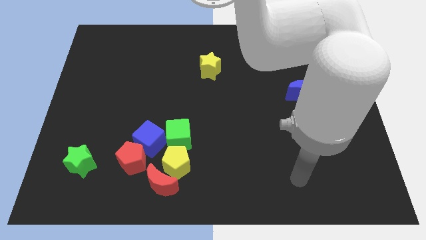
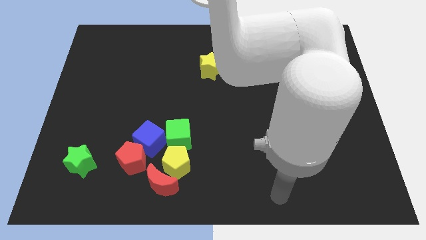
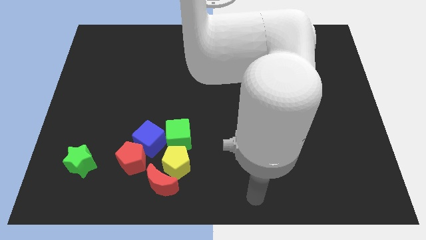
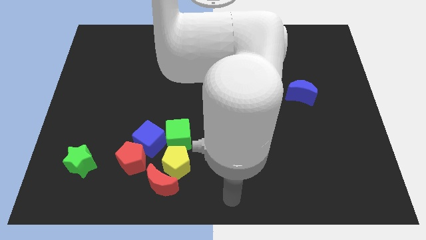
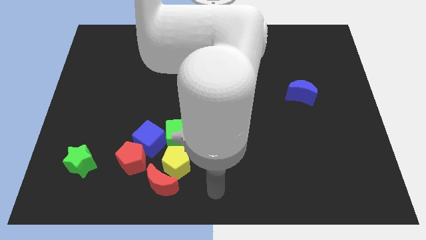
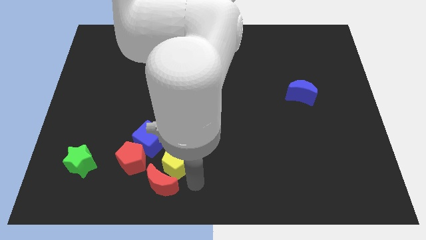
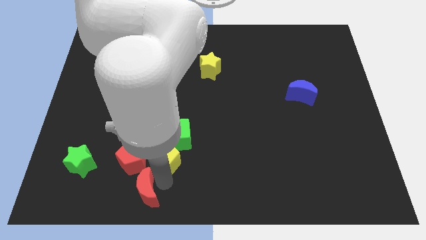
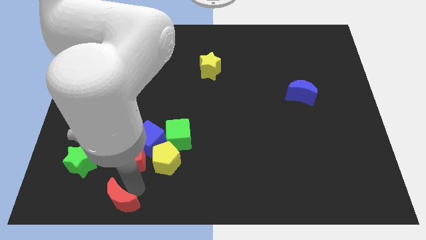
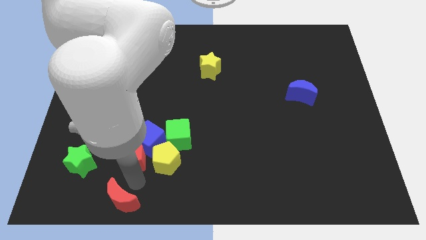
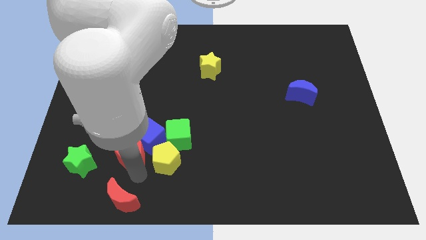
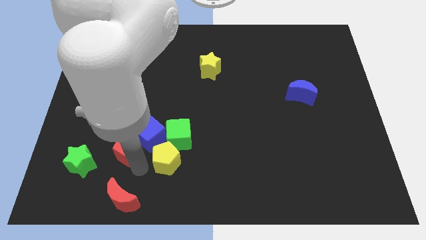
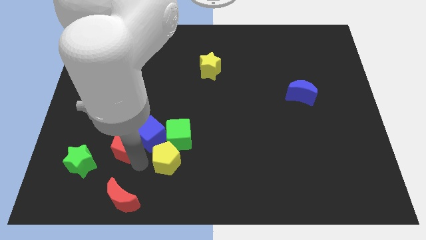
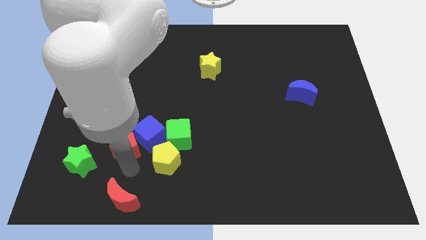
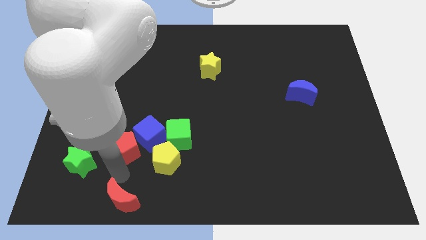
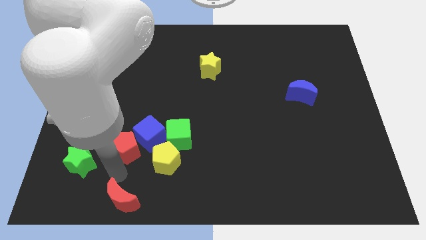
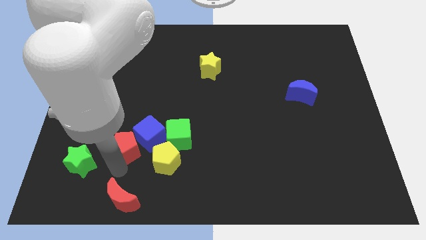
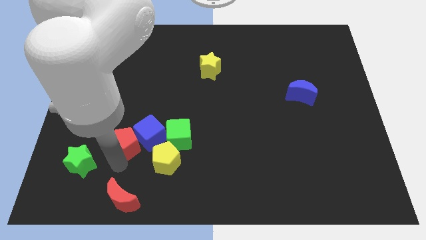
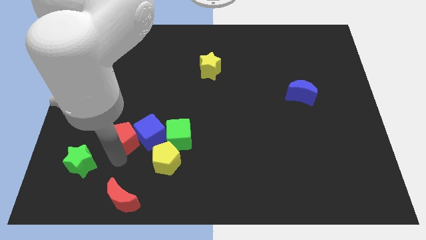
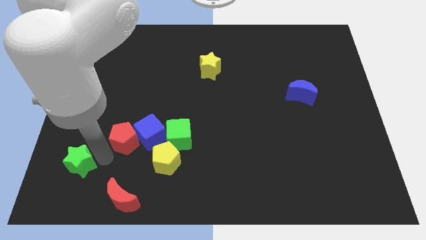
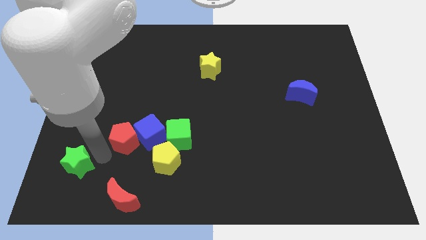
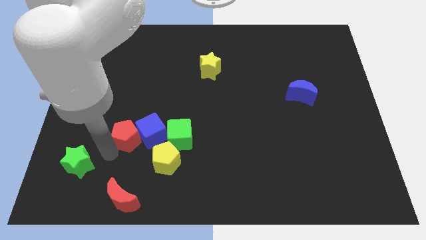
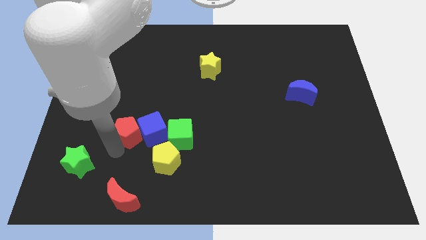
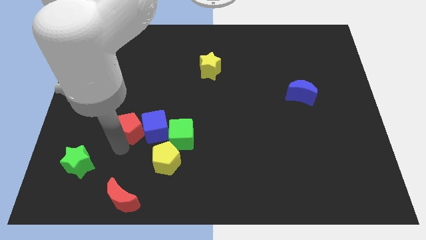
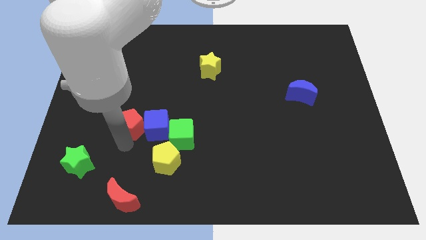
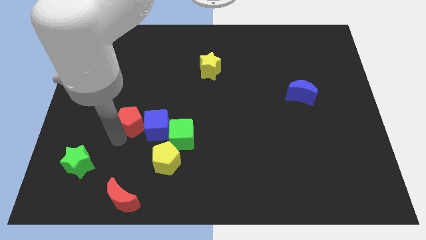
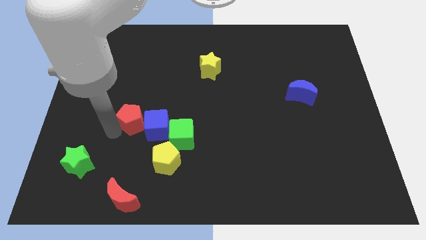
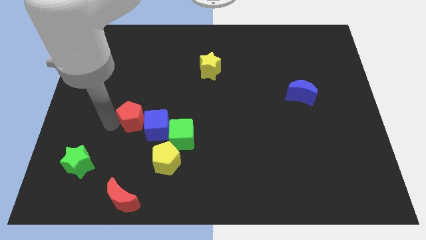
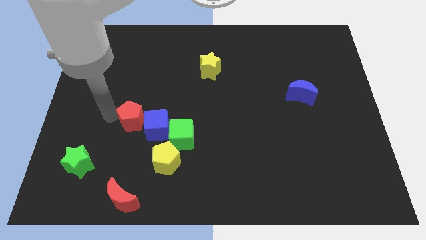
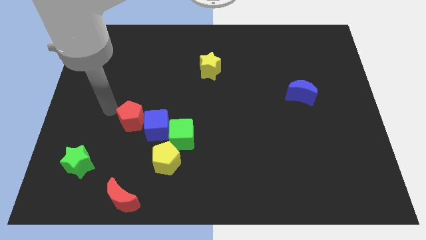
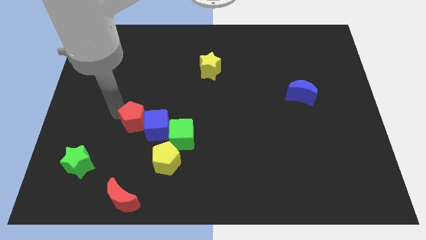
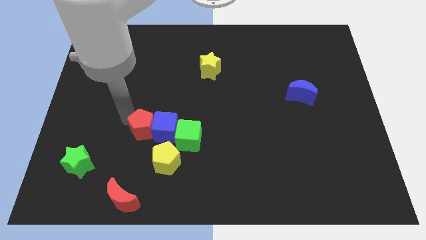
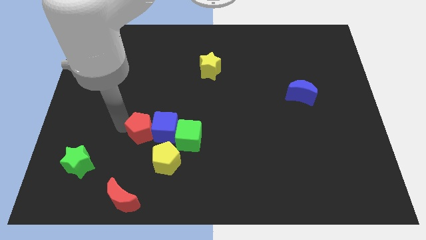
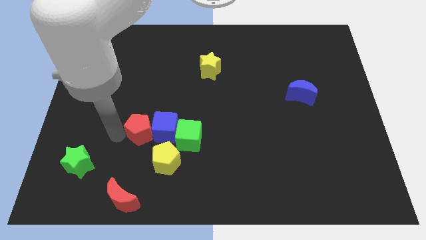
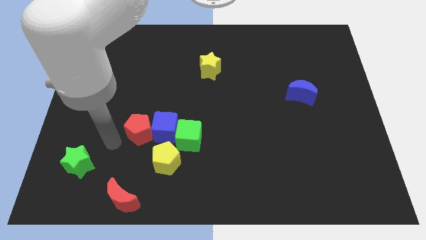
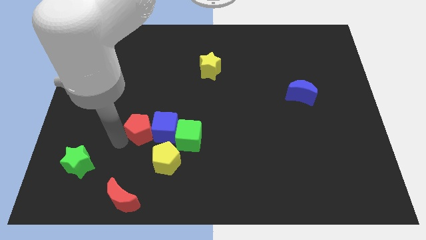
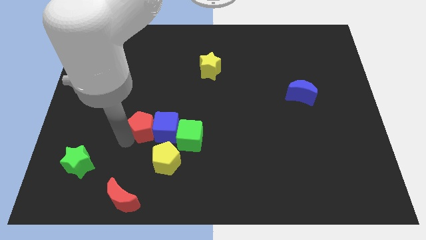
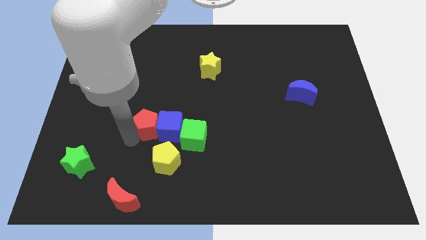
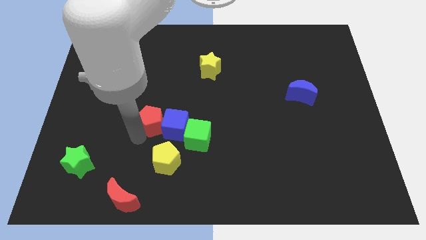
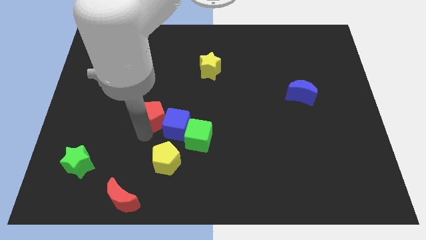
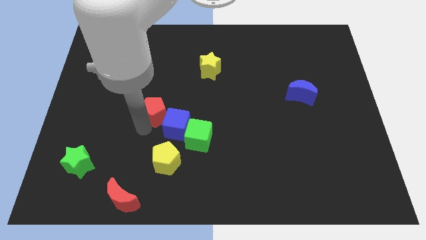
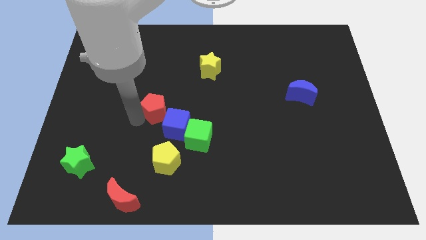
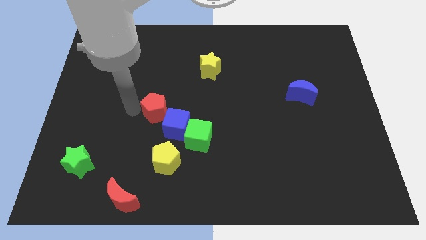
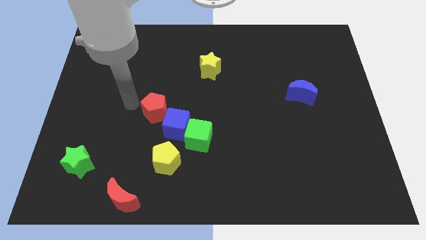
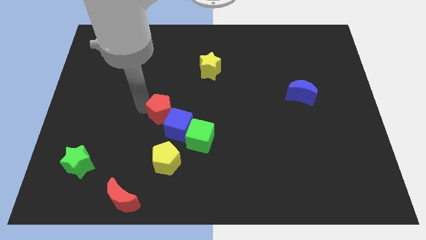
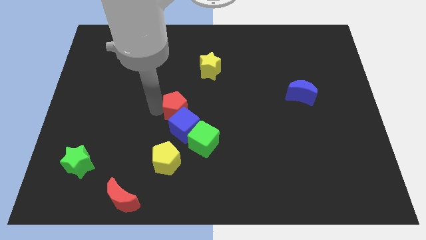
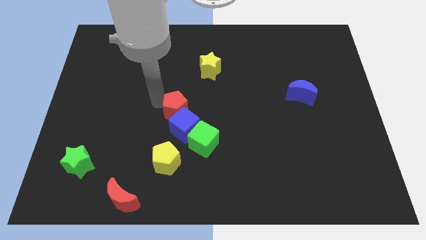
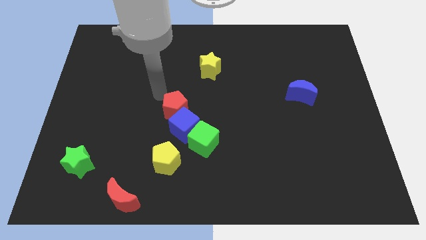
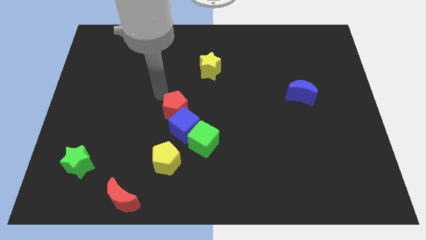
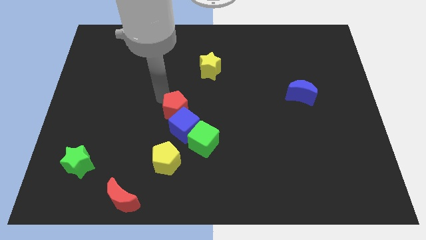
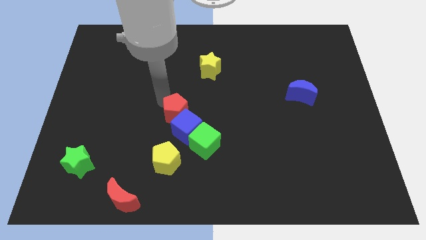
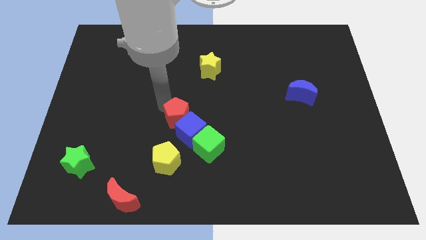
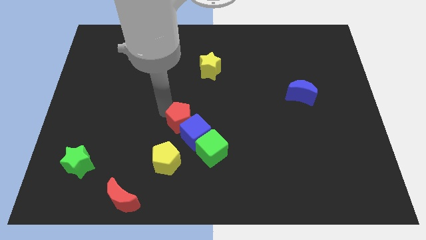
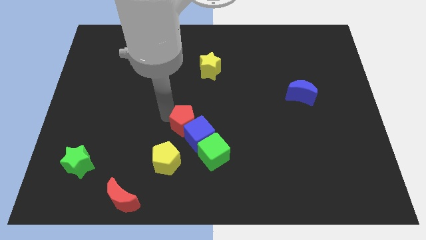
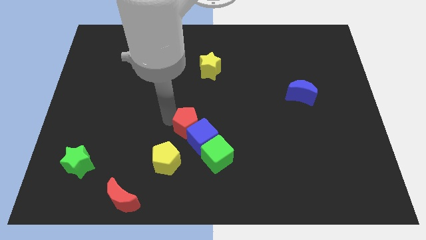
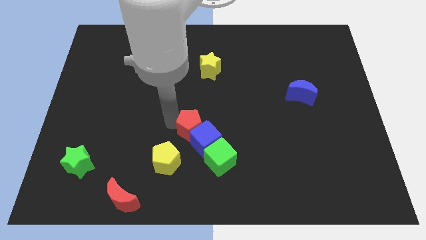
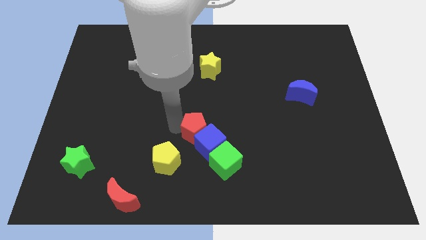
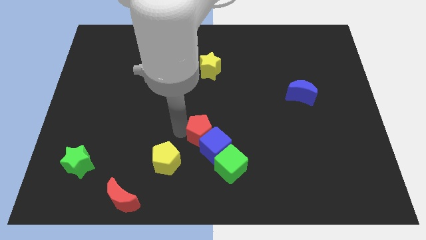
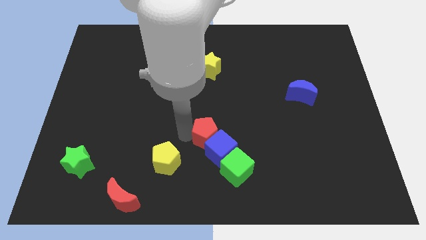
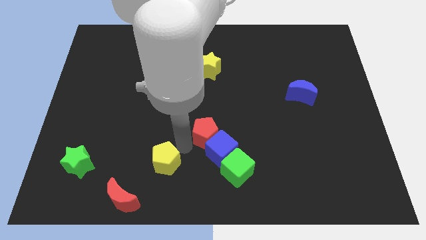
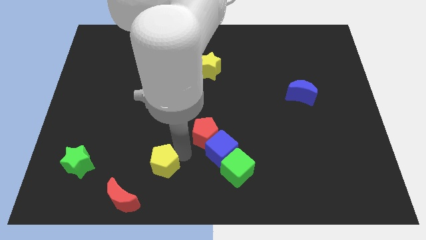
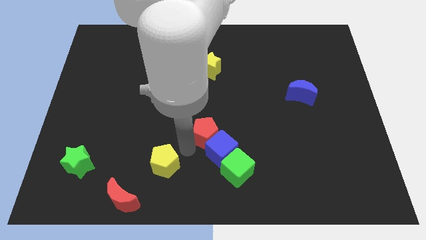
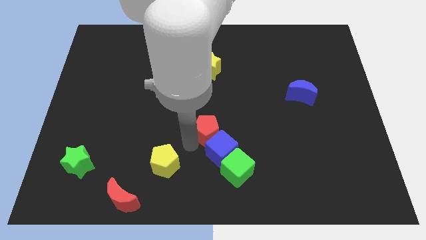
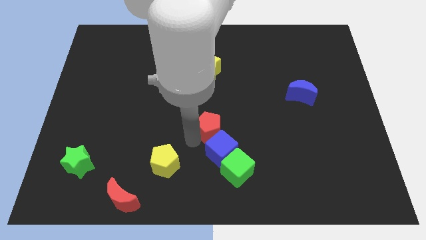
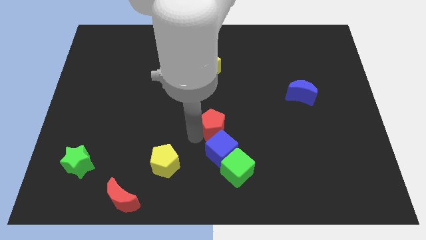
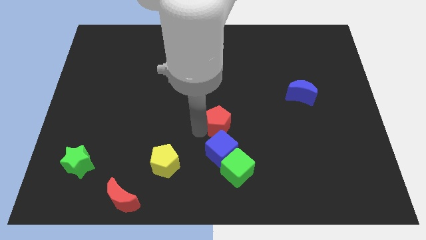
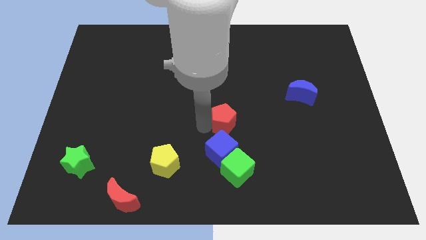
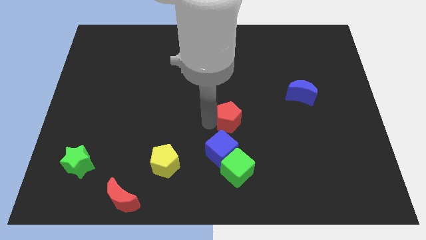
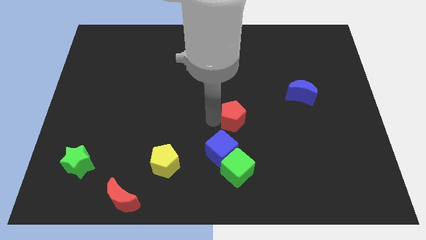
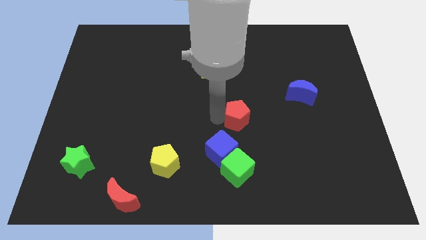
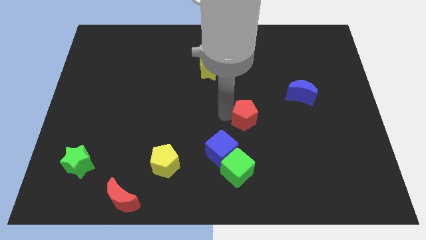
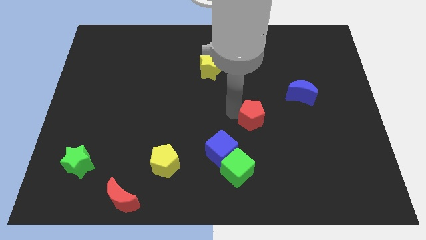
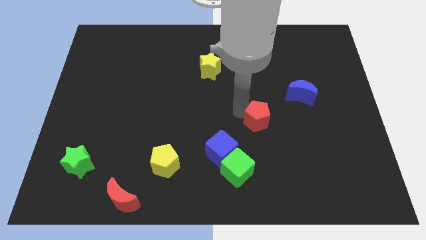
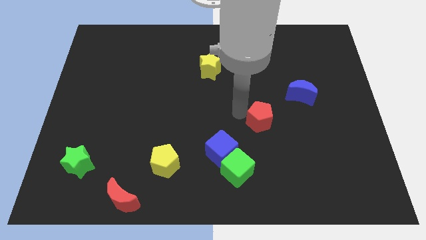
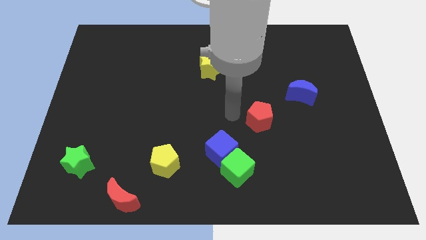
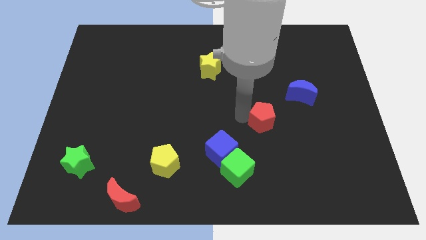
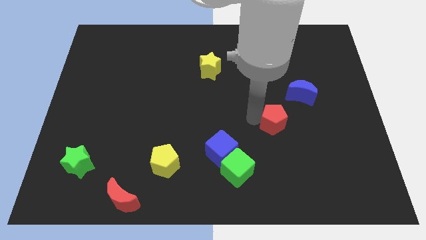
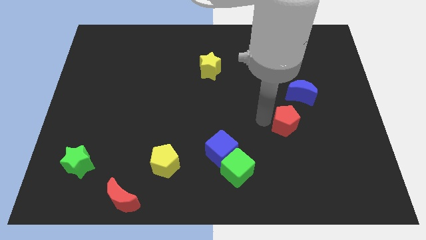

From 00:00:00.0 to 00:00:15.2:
put the red pentagon to the bottom of the blue moon
